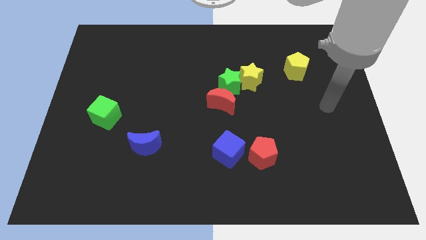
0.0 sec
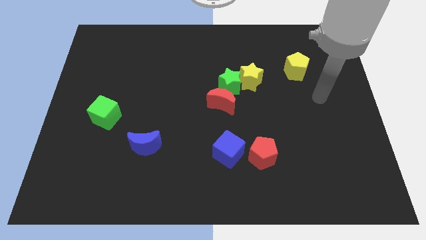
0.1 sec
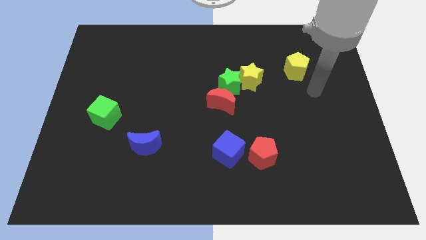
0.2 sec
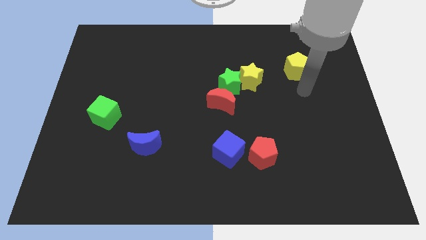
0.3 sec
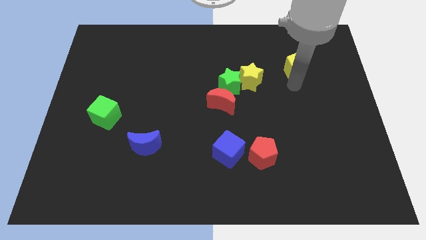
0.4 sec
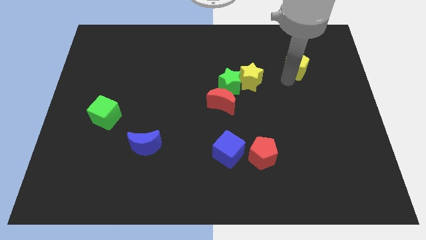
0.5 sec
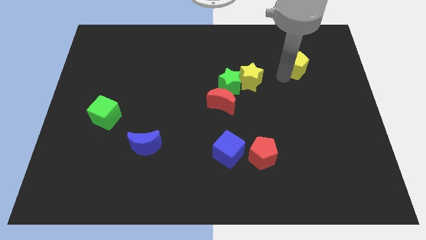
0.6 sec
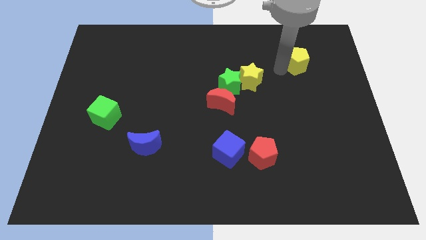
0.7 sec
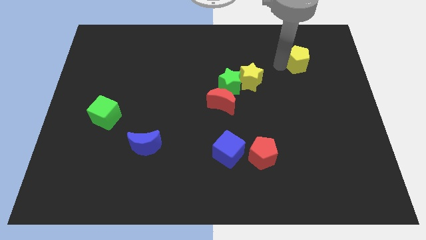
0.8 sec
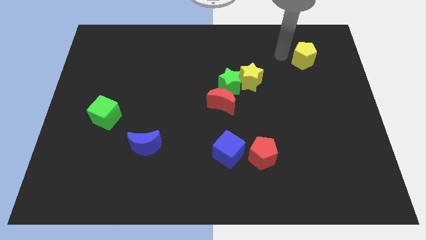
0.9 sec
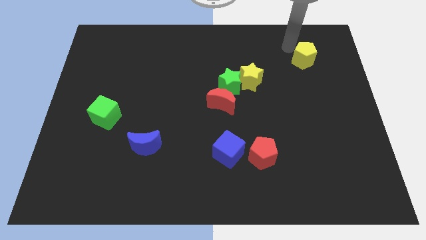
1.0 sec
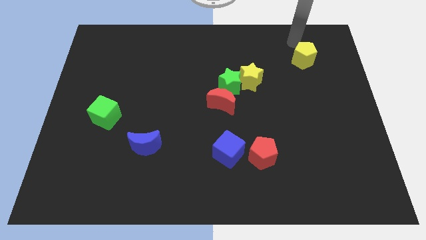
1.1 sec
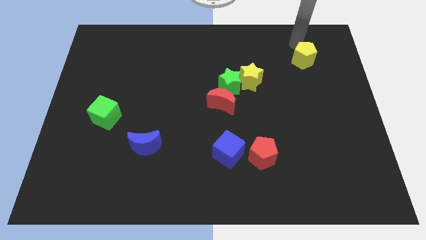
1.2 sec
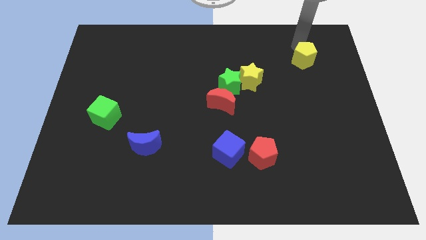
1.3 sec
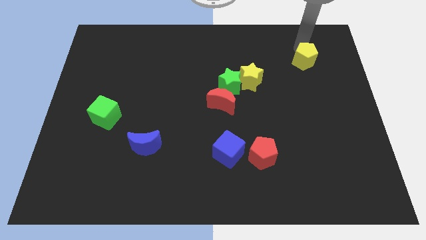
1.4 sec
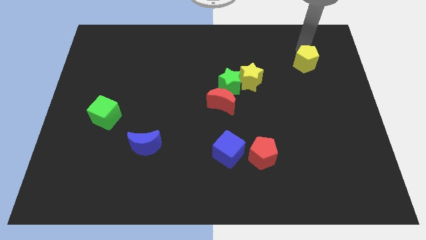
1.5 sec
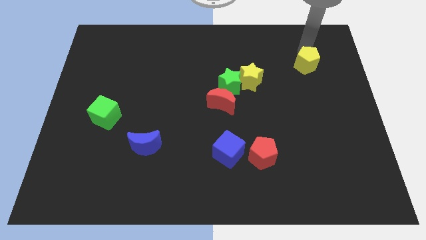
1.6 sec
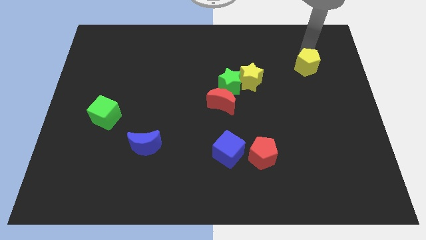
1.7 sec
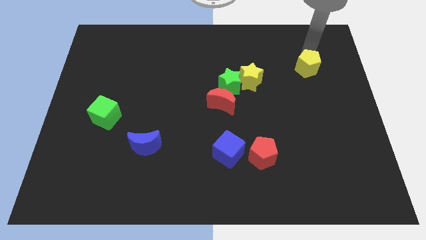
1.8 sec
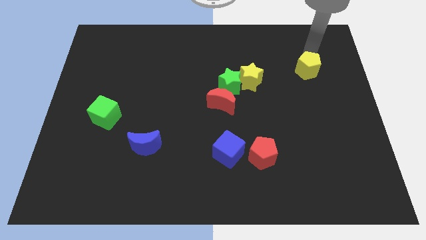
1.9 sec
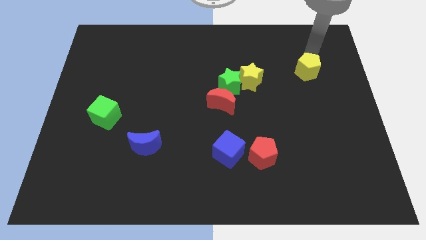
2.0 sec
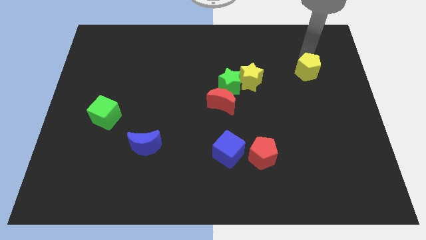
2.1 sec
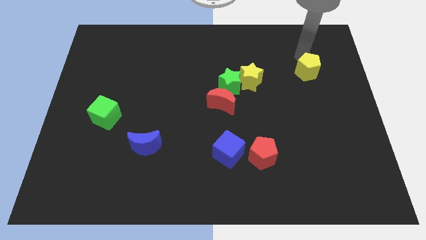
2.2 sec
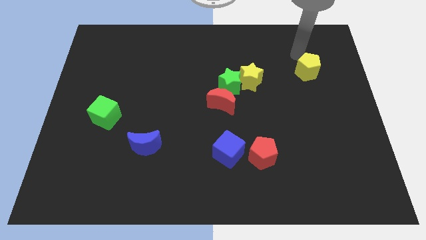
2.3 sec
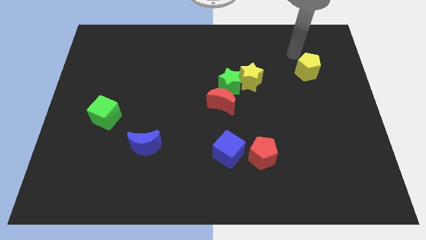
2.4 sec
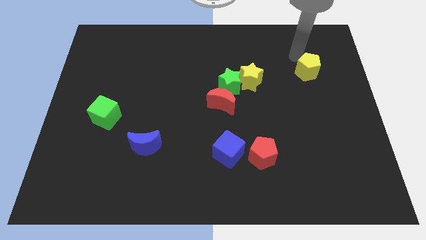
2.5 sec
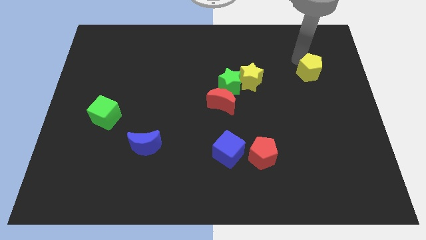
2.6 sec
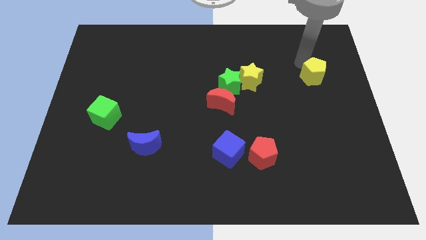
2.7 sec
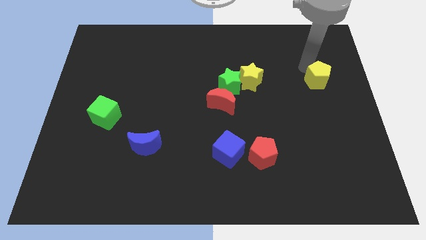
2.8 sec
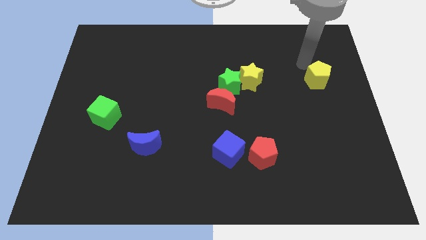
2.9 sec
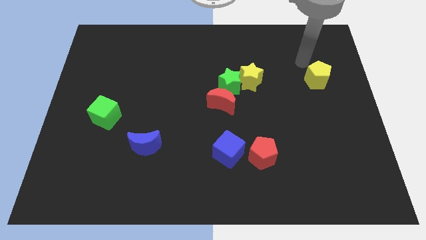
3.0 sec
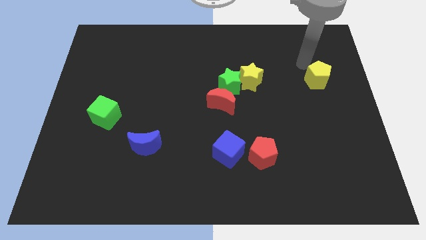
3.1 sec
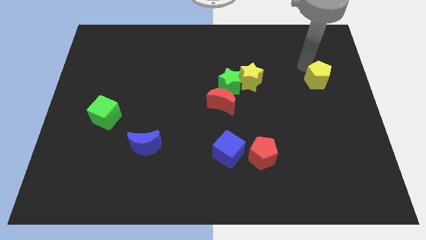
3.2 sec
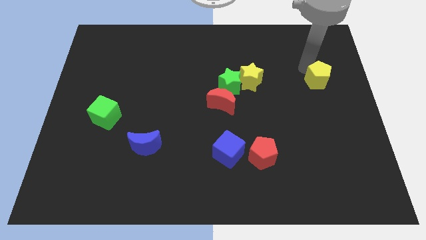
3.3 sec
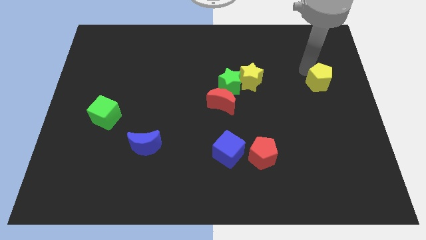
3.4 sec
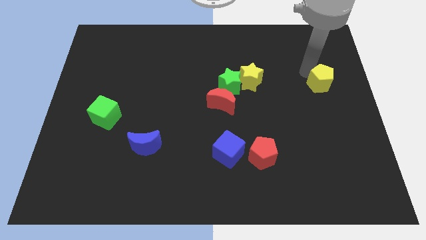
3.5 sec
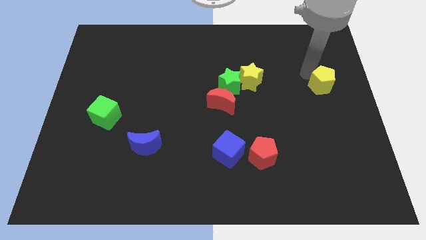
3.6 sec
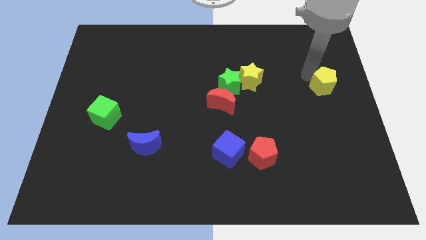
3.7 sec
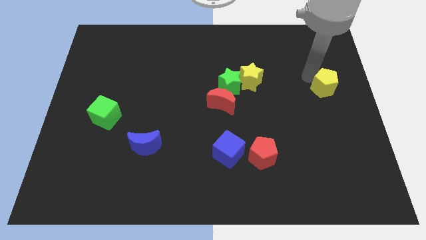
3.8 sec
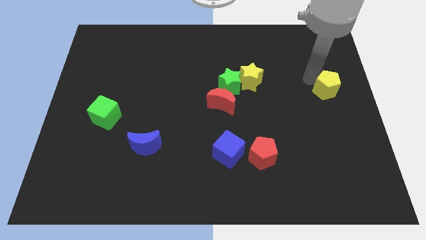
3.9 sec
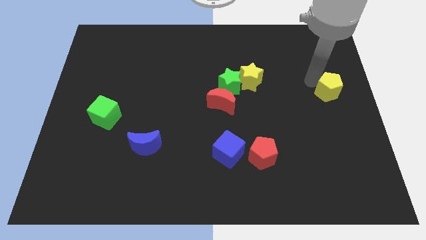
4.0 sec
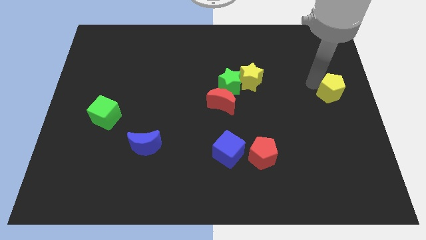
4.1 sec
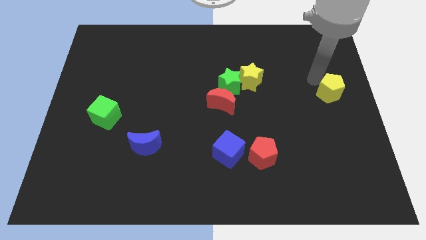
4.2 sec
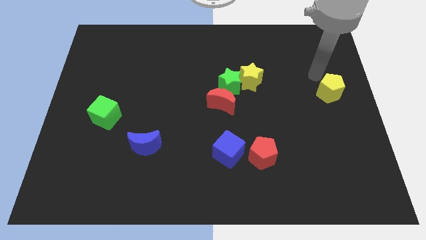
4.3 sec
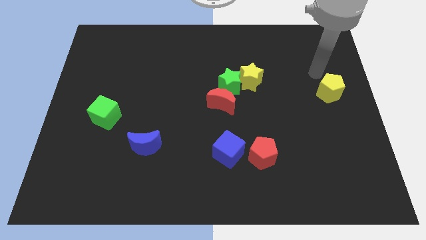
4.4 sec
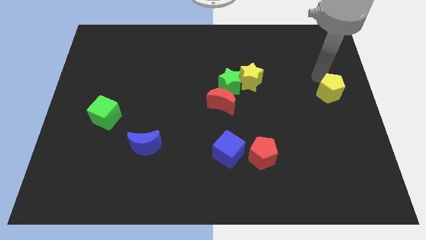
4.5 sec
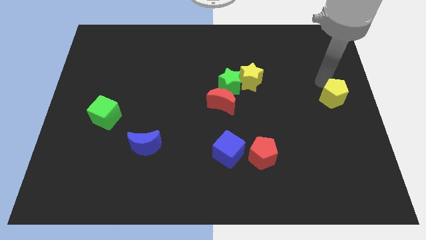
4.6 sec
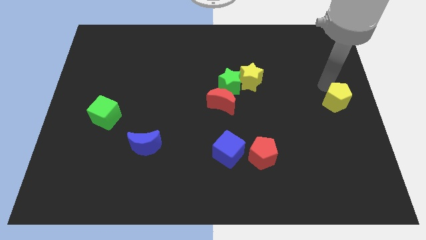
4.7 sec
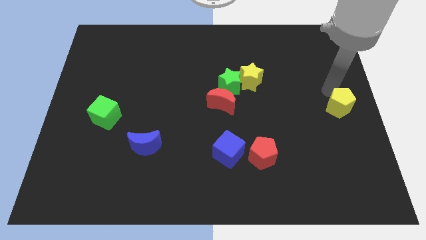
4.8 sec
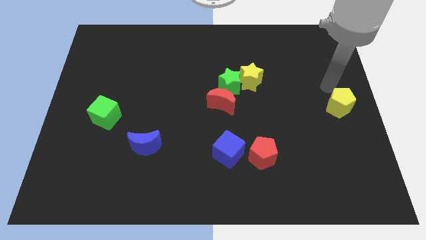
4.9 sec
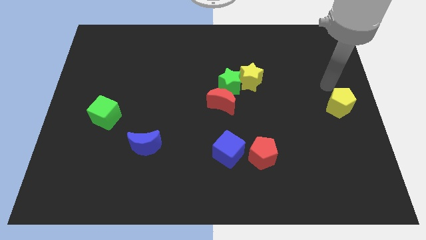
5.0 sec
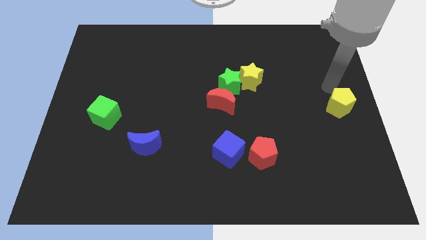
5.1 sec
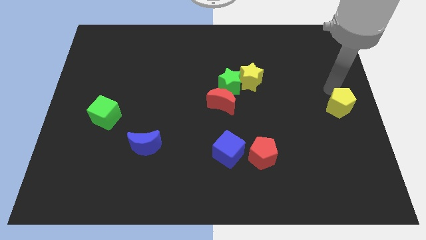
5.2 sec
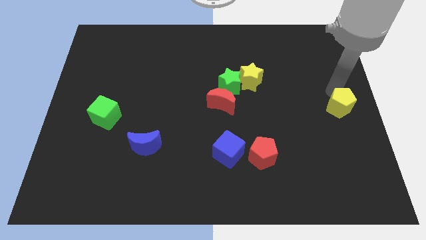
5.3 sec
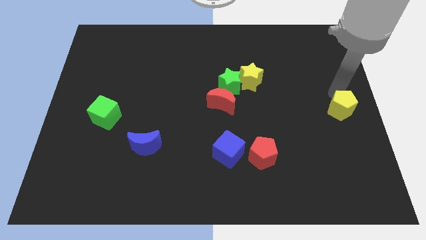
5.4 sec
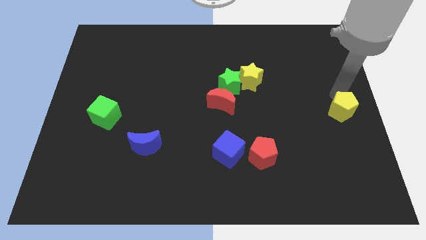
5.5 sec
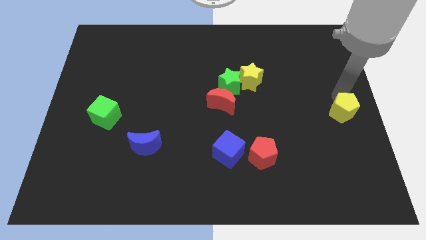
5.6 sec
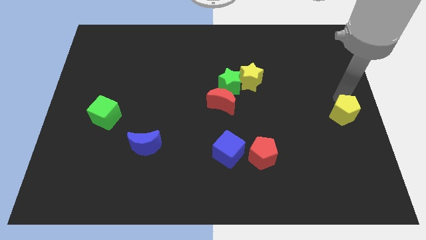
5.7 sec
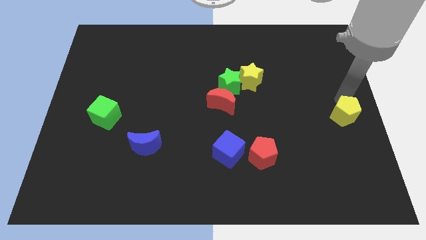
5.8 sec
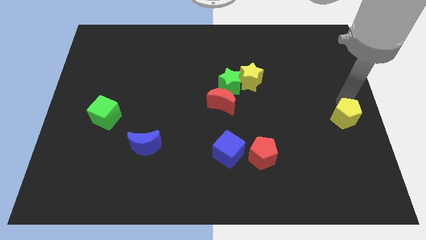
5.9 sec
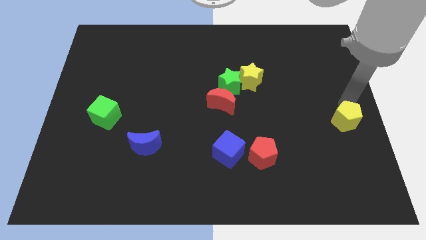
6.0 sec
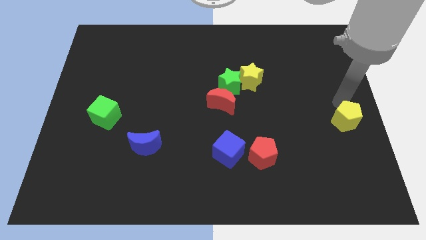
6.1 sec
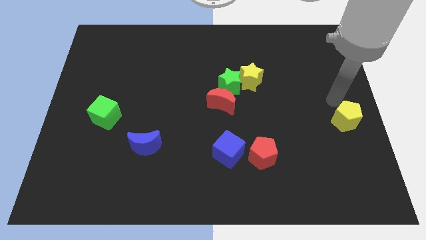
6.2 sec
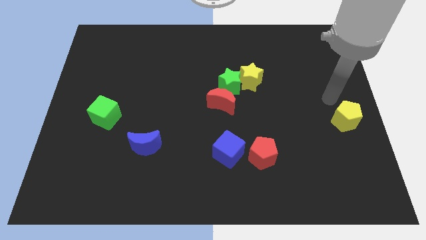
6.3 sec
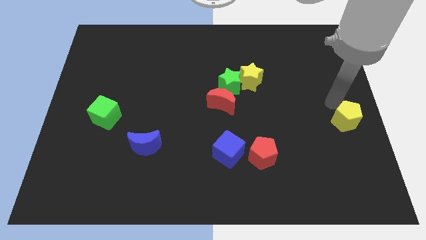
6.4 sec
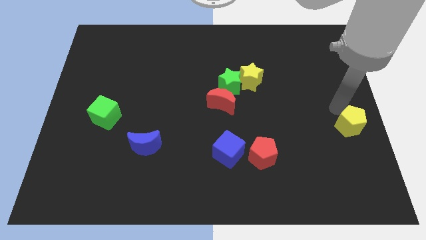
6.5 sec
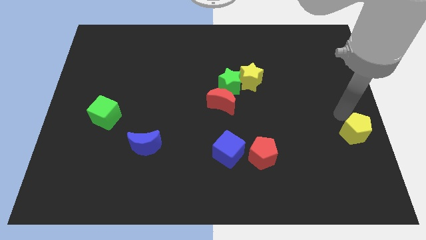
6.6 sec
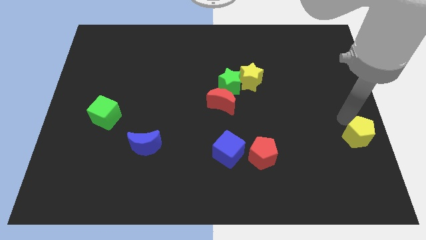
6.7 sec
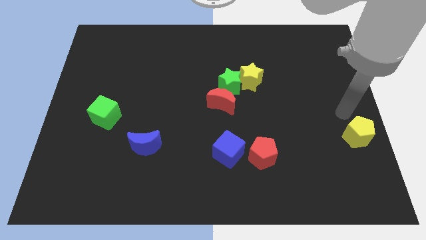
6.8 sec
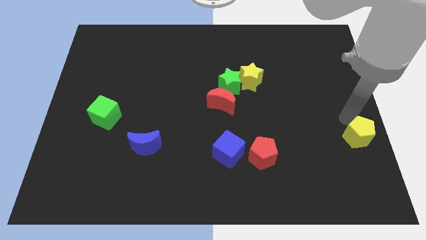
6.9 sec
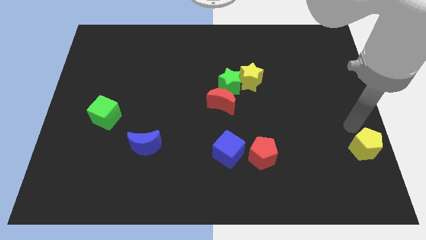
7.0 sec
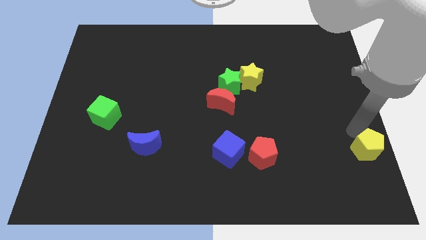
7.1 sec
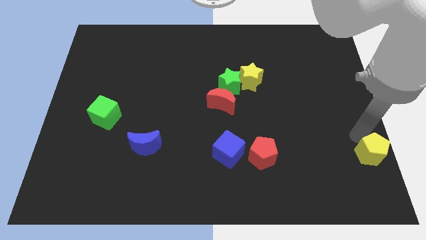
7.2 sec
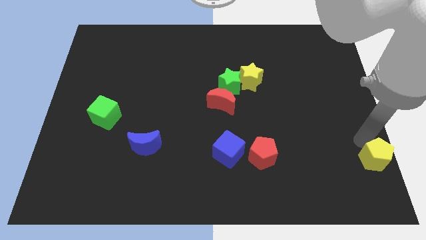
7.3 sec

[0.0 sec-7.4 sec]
slide the yellow pentagon to the bottom right of the board
